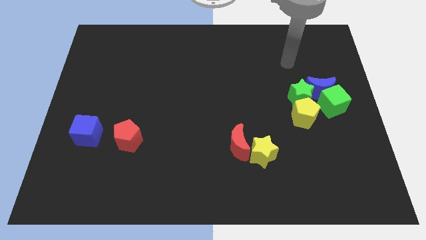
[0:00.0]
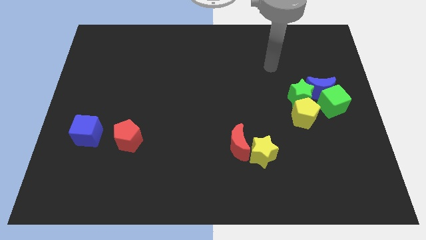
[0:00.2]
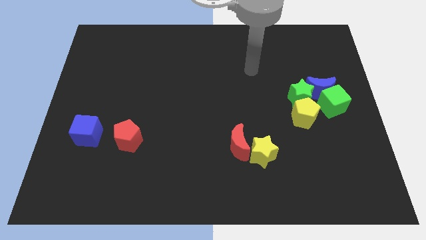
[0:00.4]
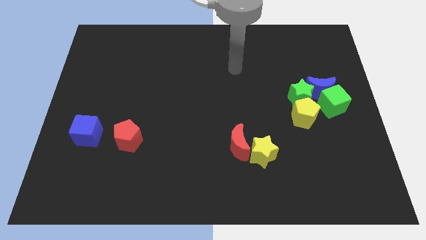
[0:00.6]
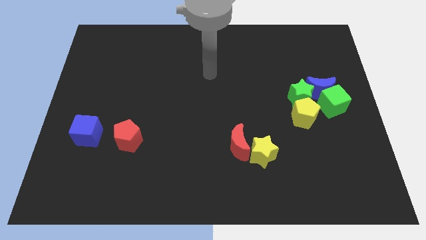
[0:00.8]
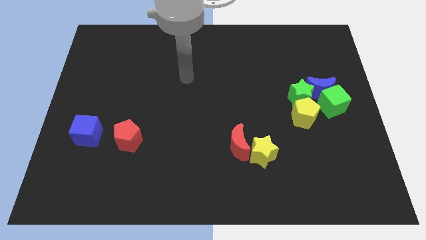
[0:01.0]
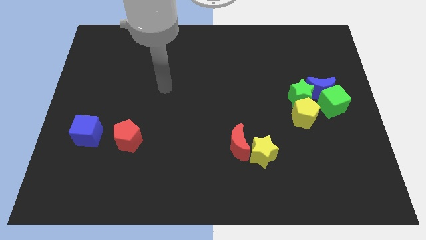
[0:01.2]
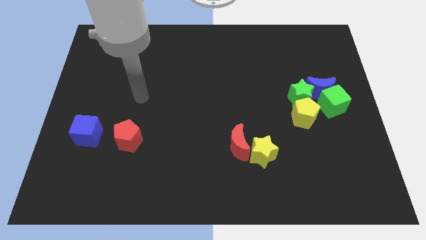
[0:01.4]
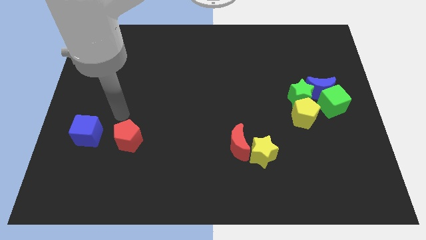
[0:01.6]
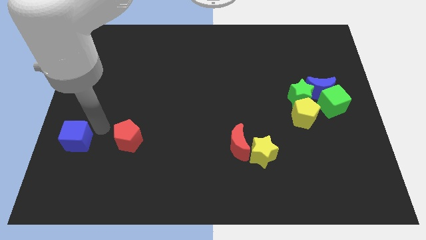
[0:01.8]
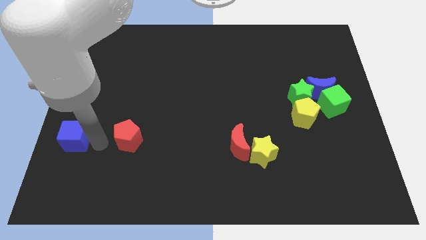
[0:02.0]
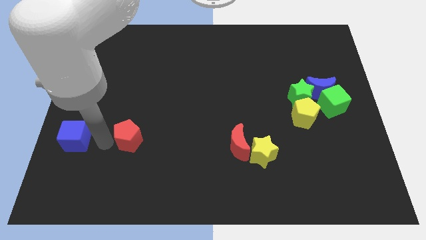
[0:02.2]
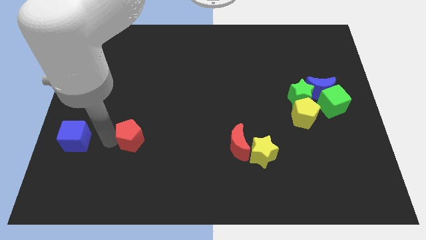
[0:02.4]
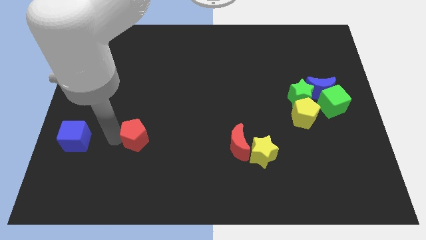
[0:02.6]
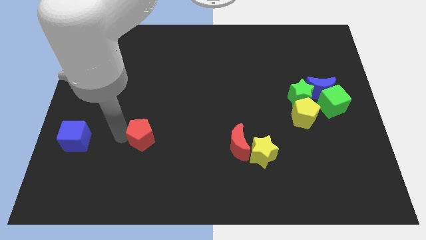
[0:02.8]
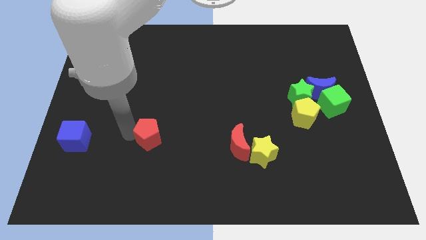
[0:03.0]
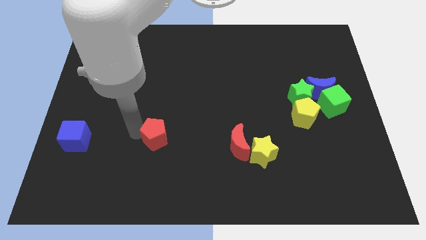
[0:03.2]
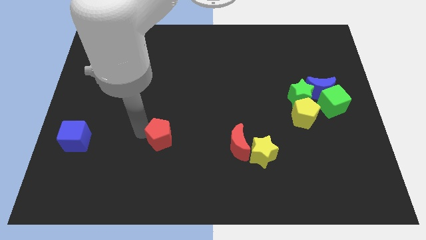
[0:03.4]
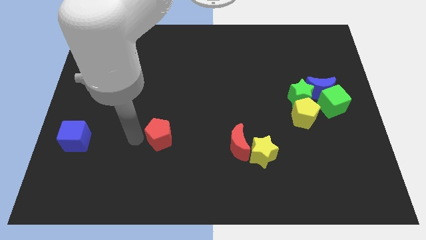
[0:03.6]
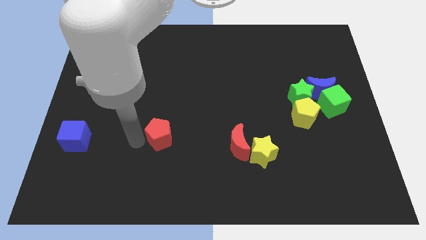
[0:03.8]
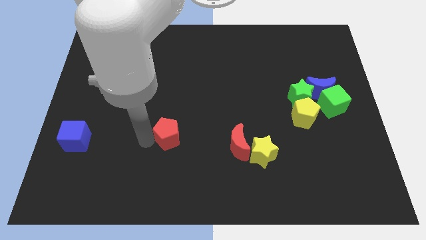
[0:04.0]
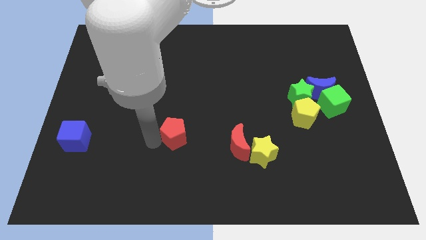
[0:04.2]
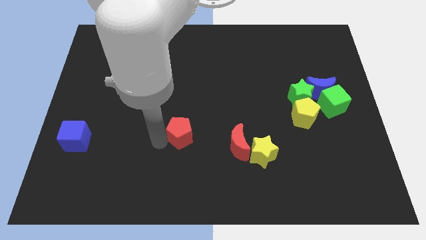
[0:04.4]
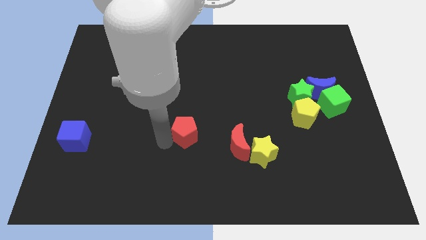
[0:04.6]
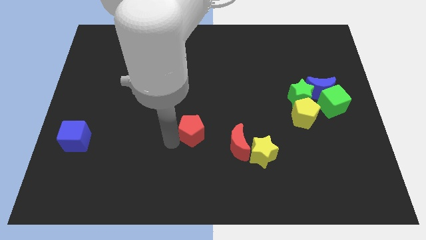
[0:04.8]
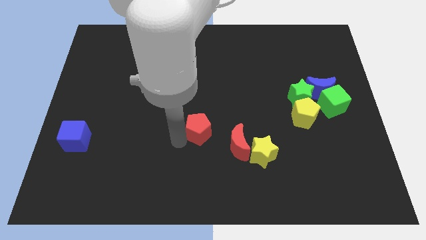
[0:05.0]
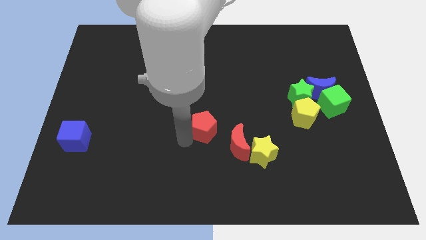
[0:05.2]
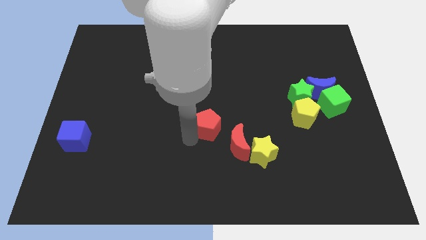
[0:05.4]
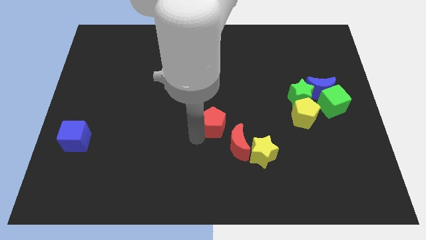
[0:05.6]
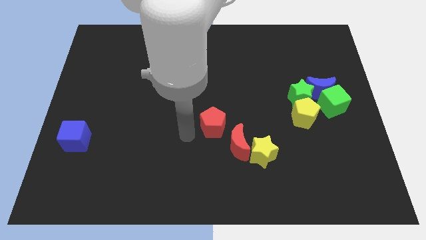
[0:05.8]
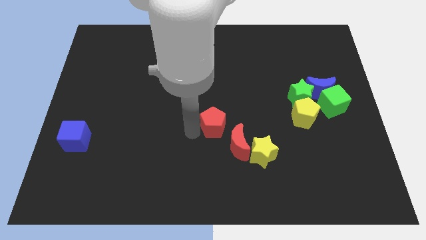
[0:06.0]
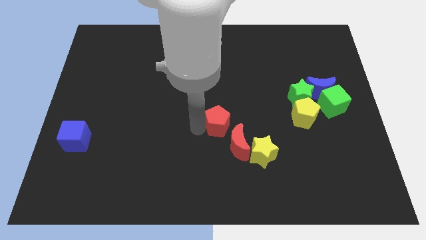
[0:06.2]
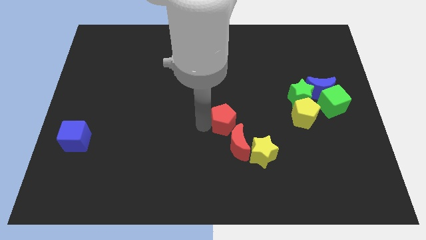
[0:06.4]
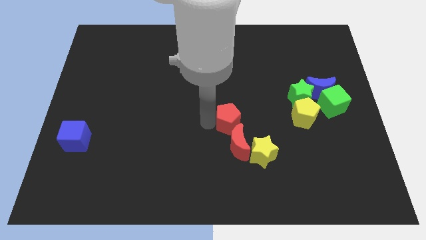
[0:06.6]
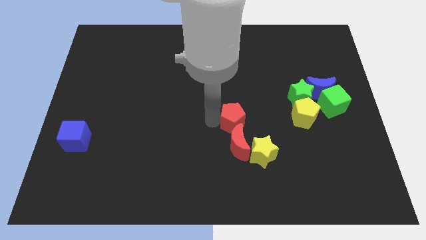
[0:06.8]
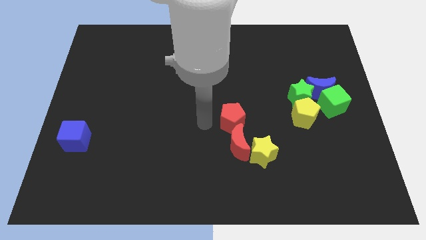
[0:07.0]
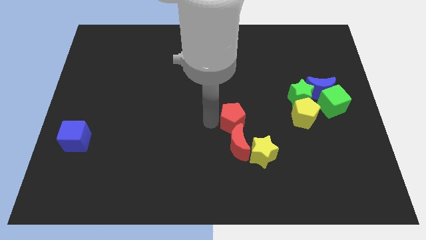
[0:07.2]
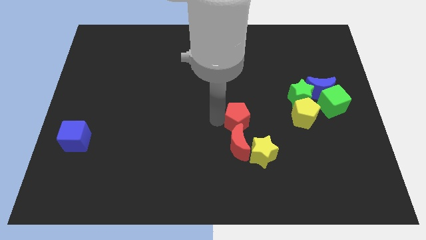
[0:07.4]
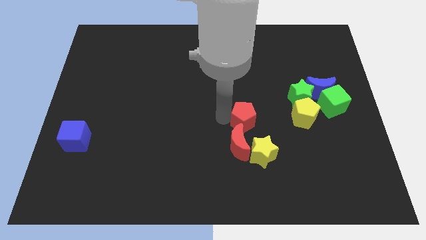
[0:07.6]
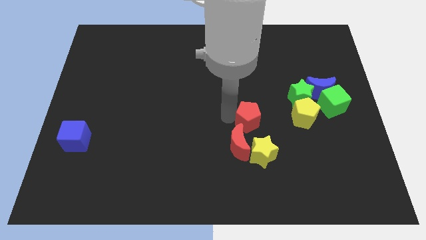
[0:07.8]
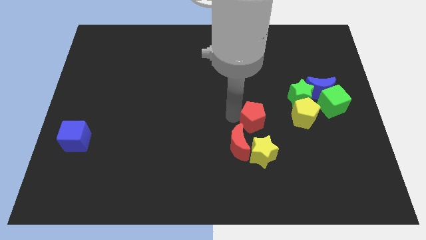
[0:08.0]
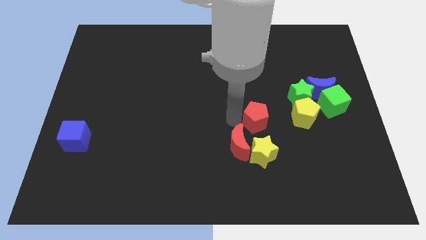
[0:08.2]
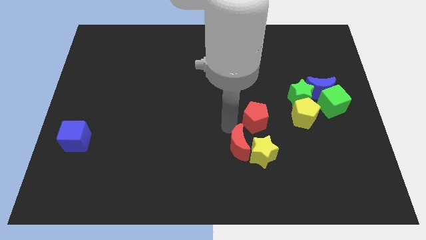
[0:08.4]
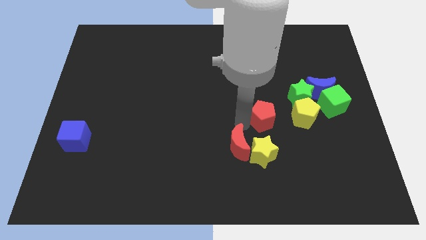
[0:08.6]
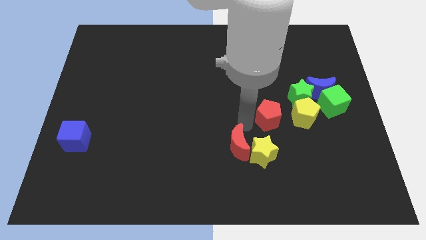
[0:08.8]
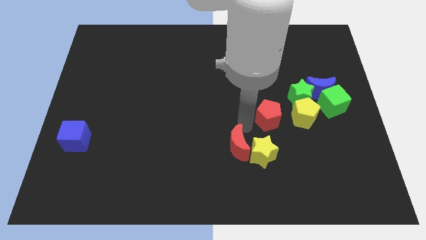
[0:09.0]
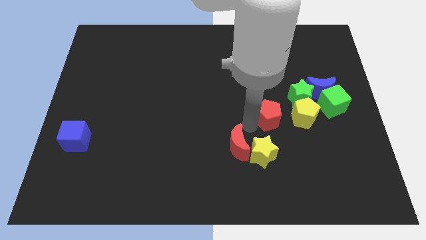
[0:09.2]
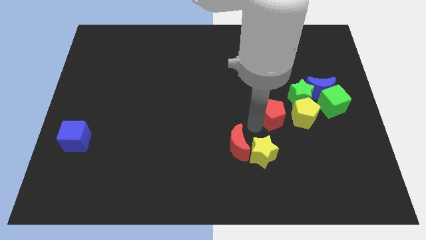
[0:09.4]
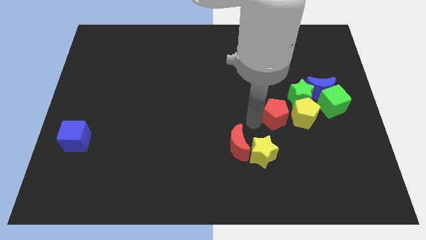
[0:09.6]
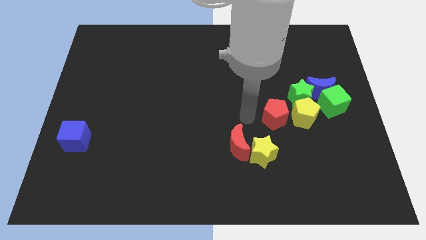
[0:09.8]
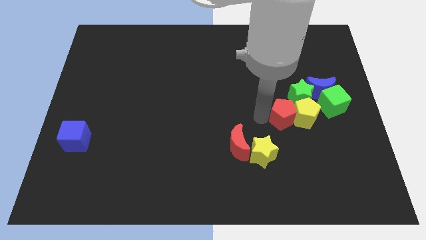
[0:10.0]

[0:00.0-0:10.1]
put the red pentagon to the yellow pentagon

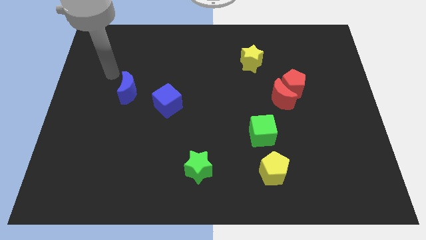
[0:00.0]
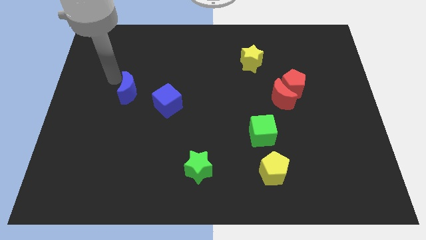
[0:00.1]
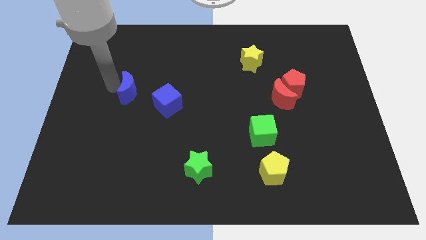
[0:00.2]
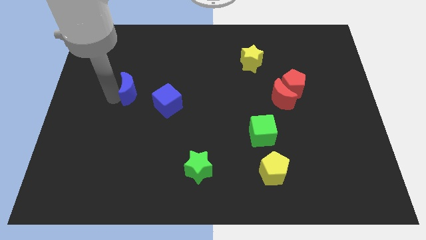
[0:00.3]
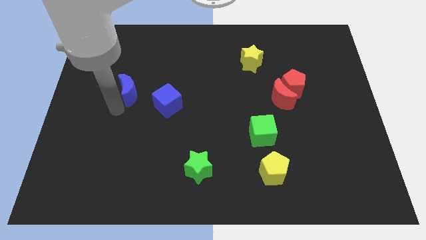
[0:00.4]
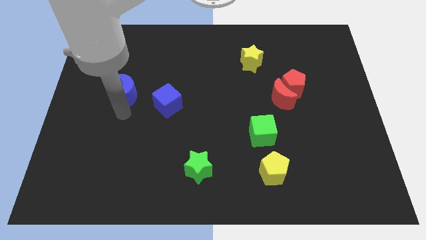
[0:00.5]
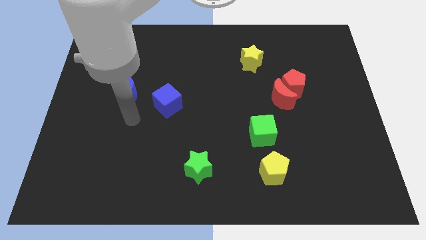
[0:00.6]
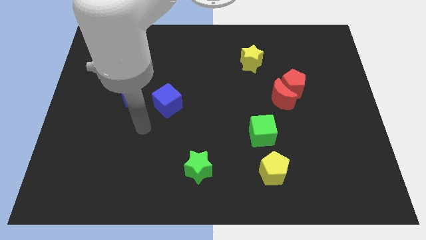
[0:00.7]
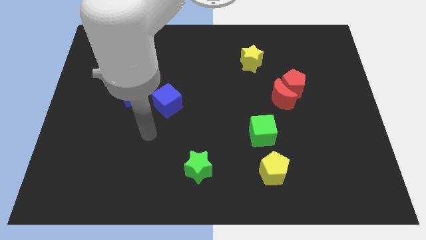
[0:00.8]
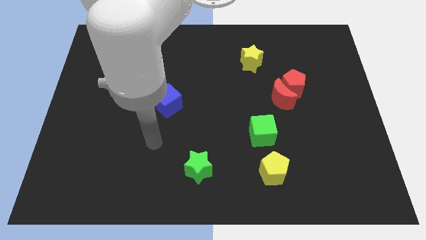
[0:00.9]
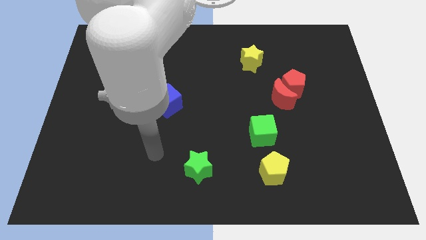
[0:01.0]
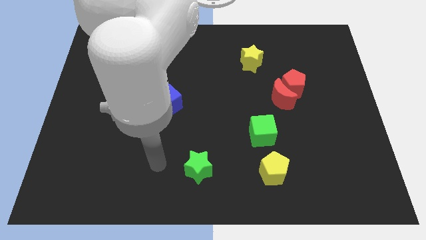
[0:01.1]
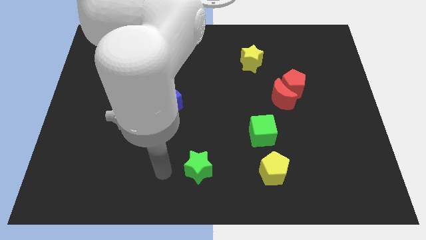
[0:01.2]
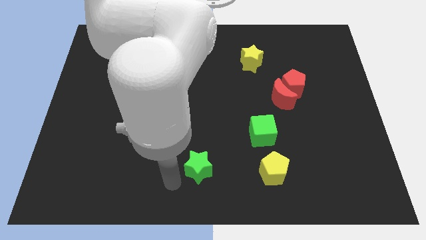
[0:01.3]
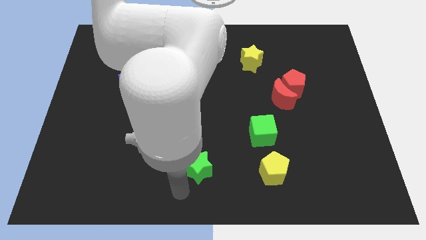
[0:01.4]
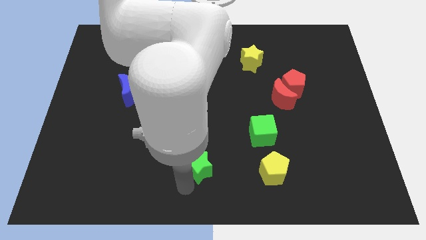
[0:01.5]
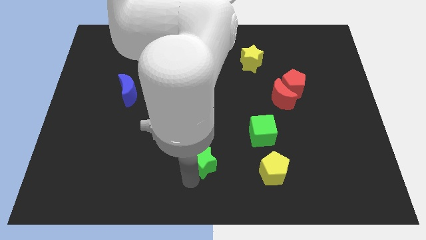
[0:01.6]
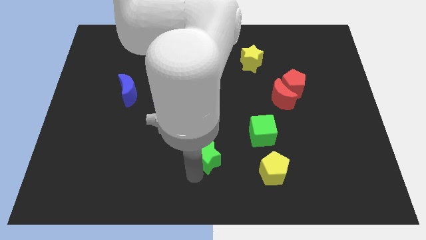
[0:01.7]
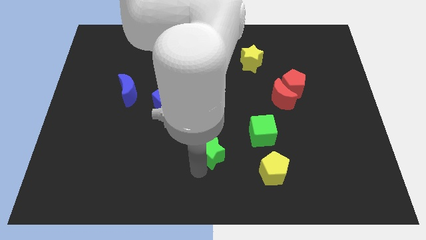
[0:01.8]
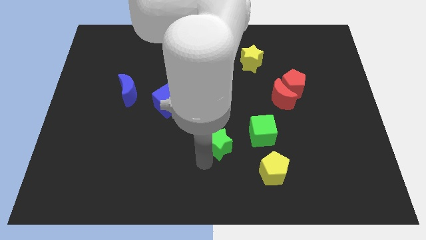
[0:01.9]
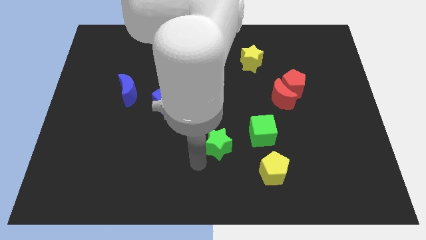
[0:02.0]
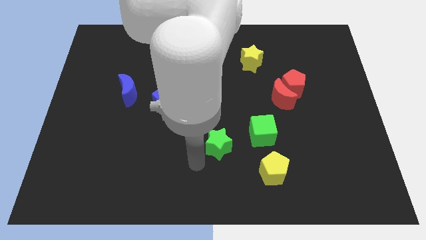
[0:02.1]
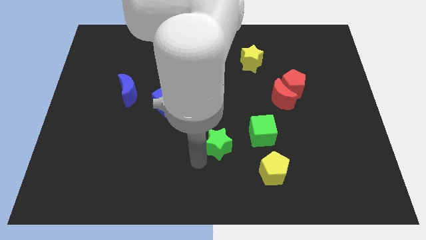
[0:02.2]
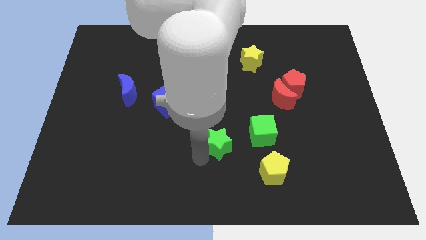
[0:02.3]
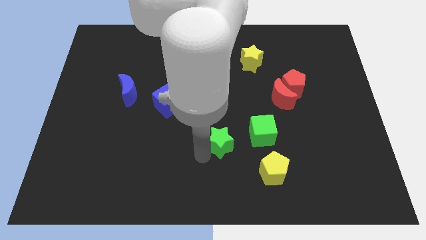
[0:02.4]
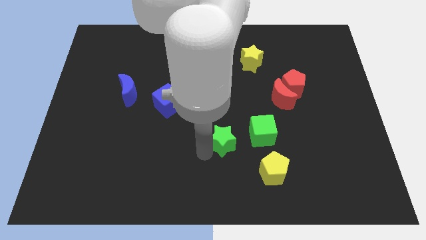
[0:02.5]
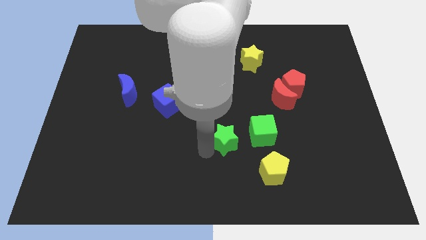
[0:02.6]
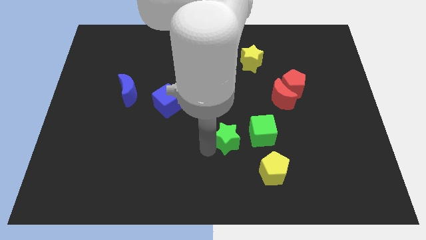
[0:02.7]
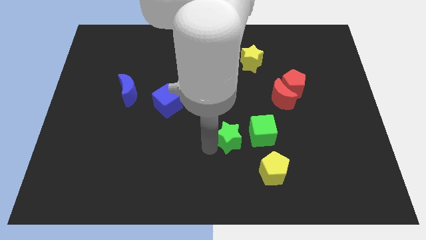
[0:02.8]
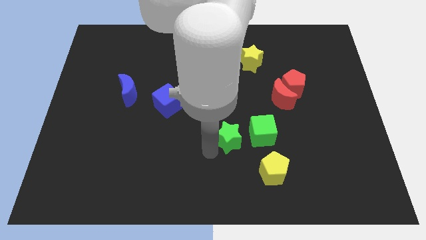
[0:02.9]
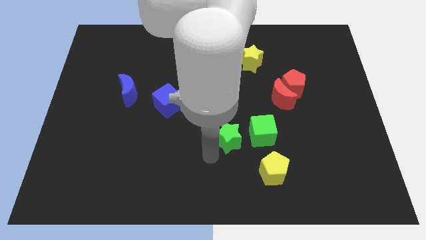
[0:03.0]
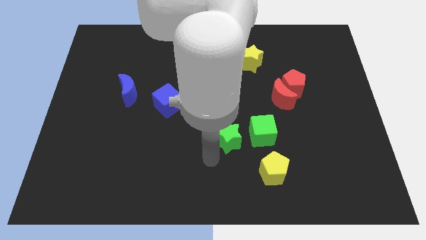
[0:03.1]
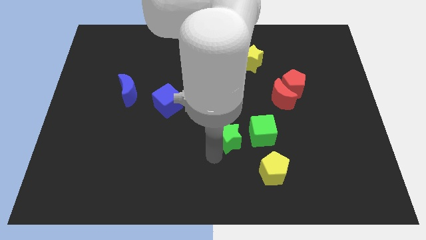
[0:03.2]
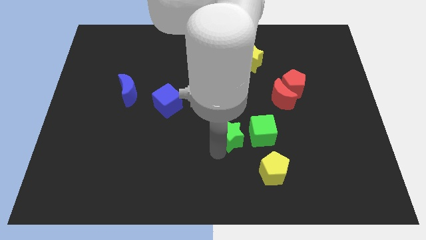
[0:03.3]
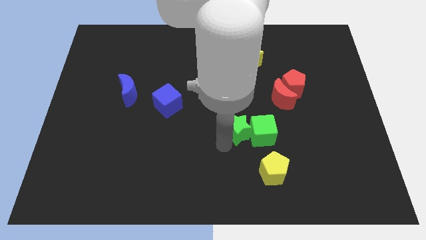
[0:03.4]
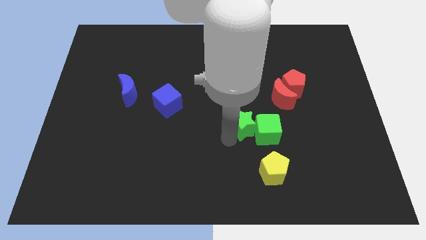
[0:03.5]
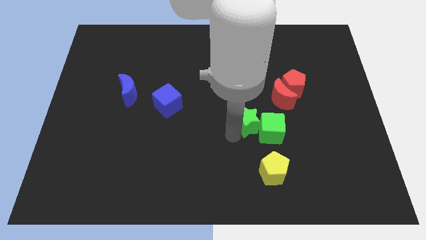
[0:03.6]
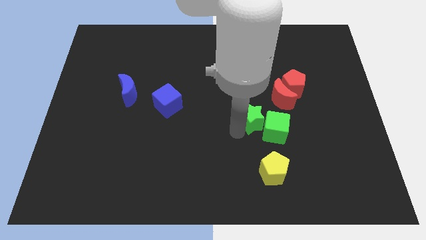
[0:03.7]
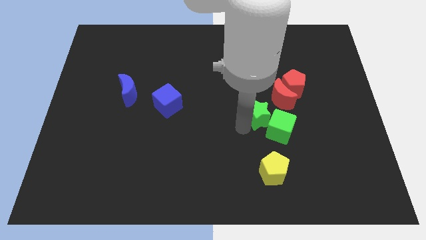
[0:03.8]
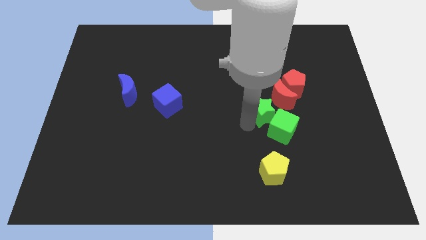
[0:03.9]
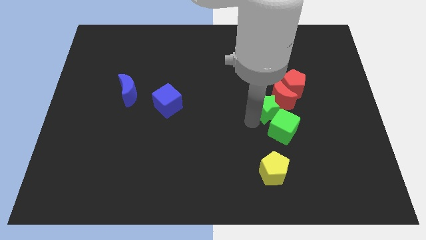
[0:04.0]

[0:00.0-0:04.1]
slide the green star towards the red moon
